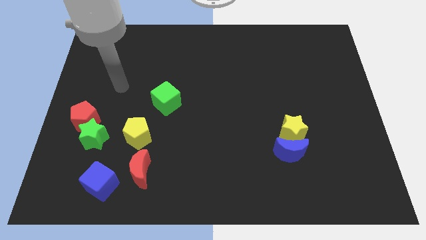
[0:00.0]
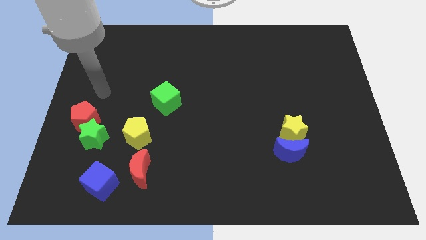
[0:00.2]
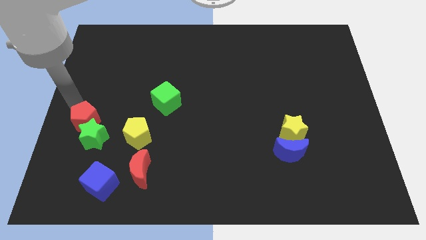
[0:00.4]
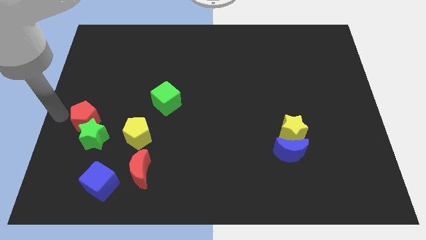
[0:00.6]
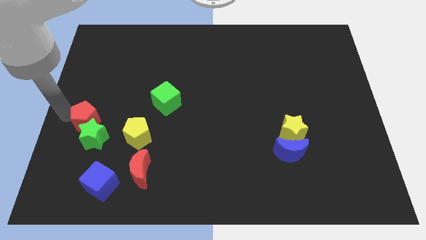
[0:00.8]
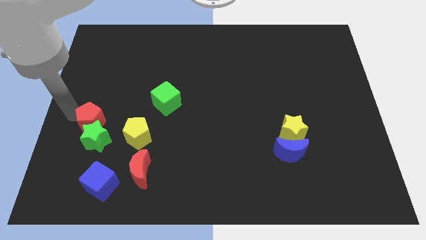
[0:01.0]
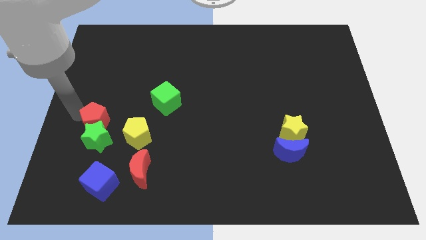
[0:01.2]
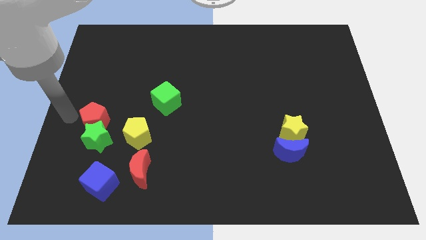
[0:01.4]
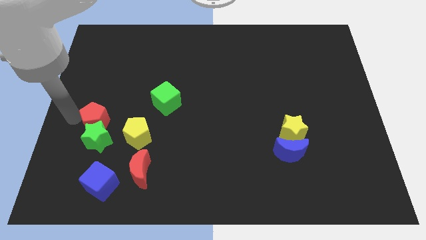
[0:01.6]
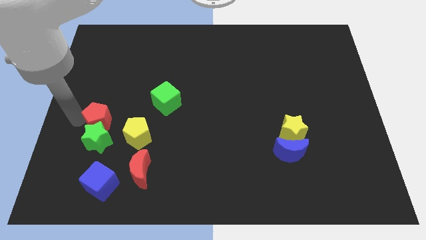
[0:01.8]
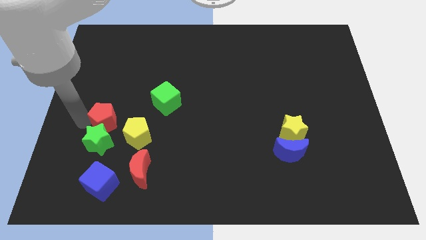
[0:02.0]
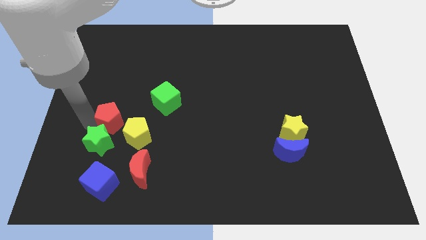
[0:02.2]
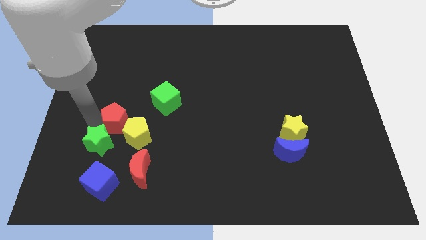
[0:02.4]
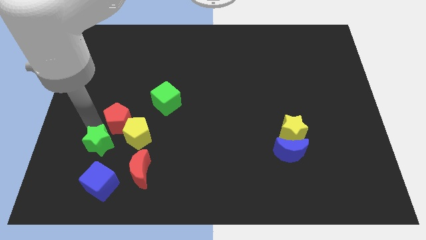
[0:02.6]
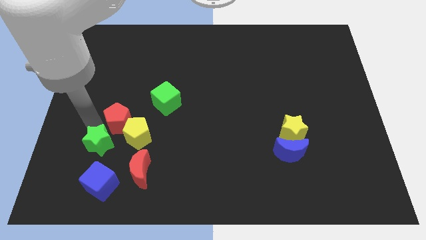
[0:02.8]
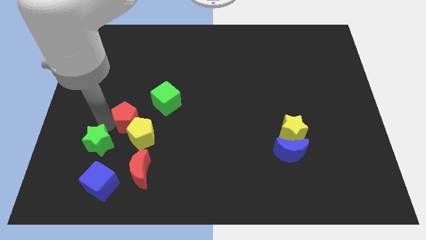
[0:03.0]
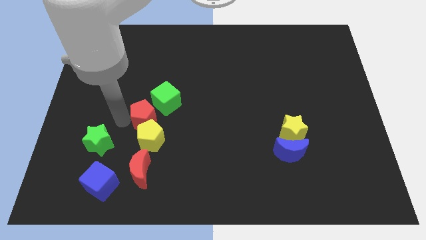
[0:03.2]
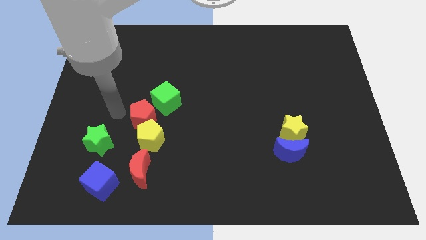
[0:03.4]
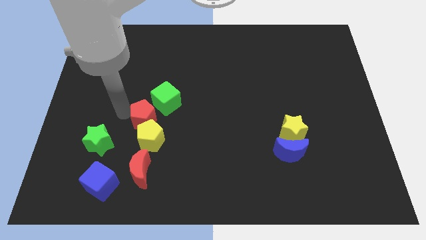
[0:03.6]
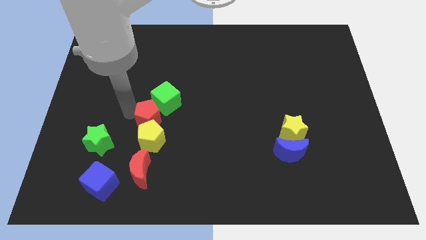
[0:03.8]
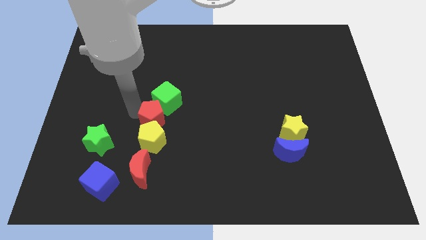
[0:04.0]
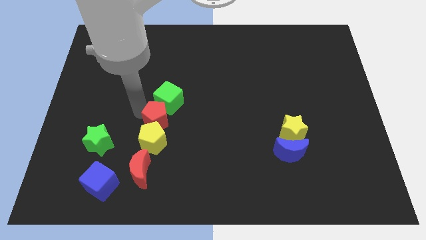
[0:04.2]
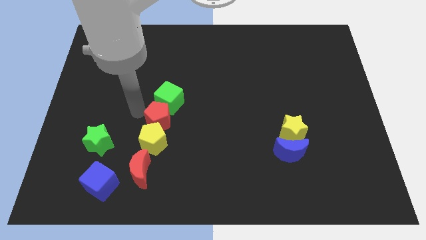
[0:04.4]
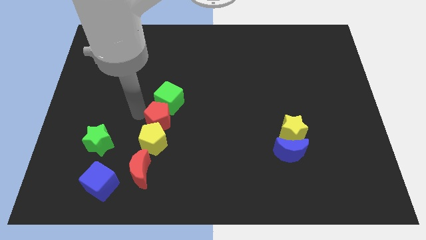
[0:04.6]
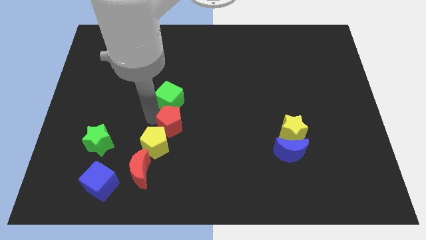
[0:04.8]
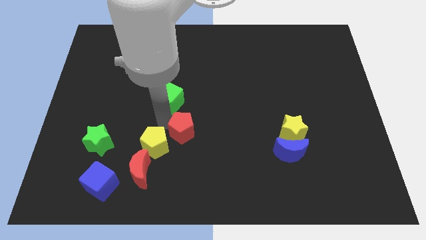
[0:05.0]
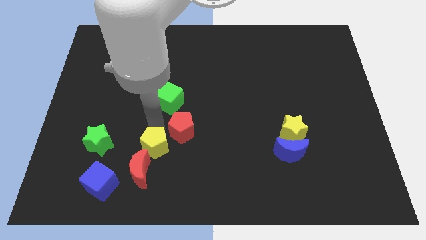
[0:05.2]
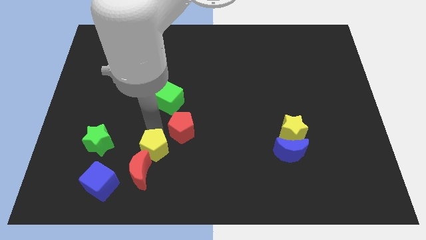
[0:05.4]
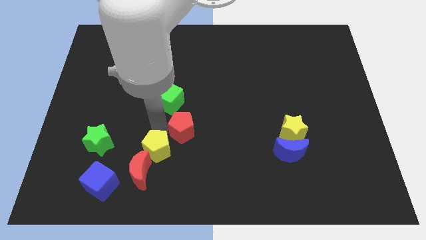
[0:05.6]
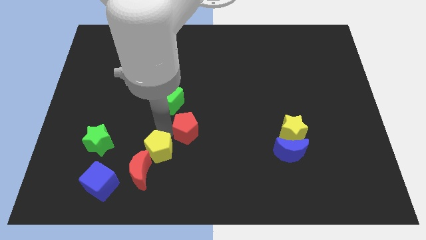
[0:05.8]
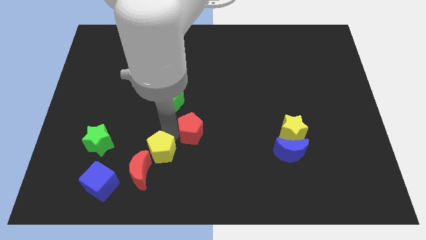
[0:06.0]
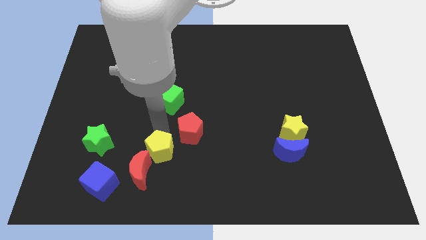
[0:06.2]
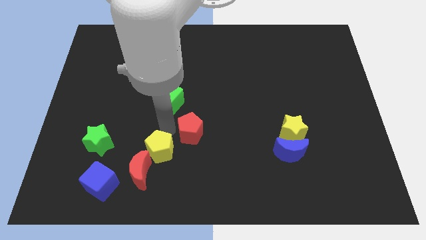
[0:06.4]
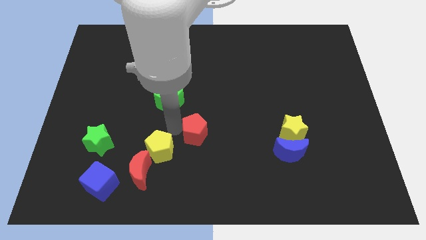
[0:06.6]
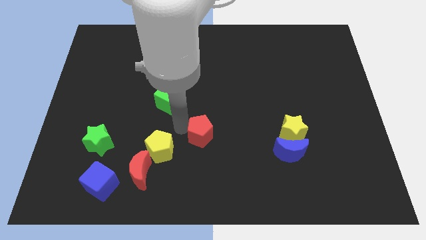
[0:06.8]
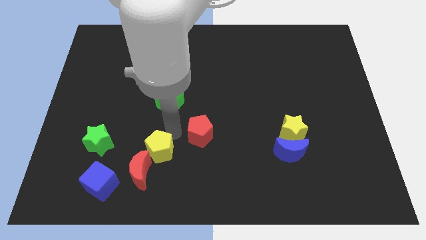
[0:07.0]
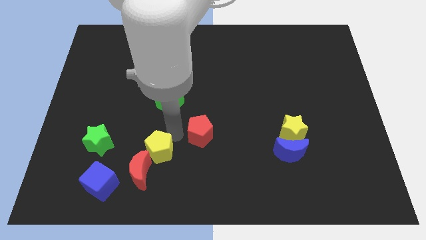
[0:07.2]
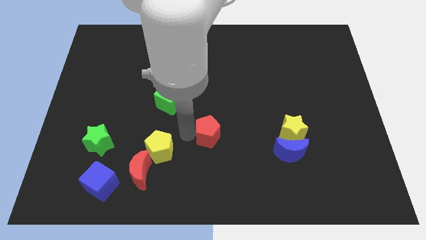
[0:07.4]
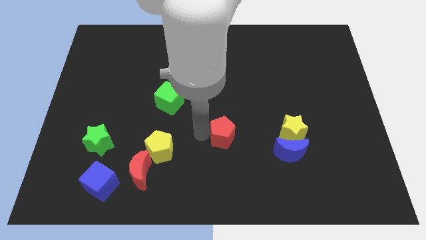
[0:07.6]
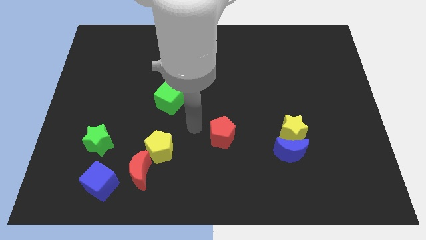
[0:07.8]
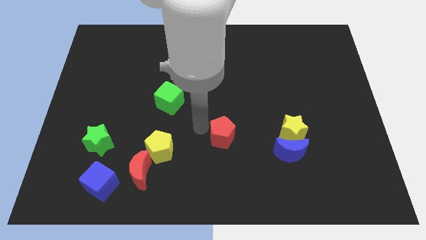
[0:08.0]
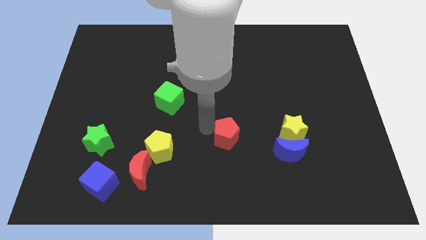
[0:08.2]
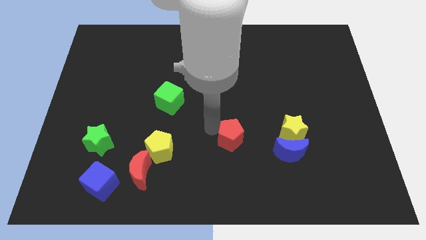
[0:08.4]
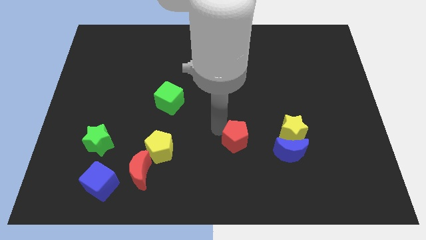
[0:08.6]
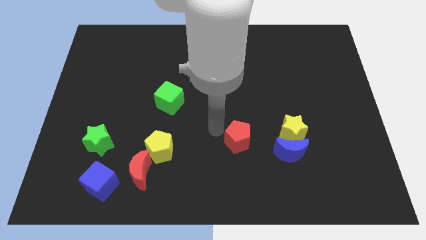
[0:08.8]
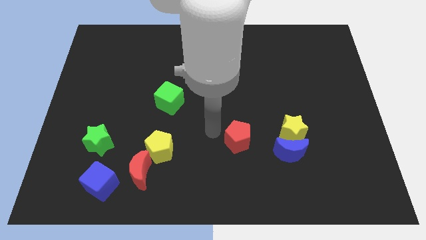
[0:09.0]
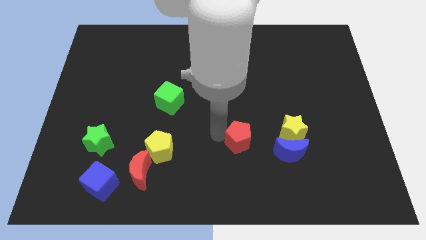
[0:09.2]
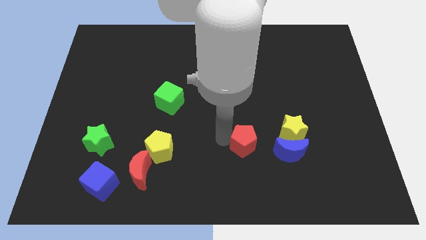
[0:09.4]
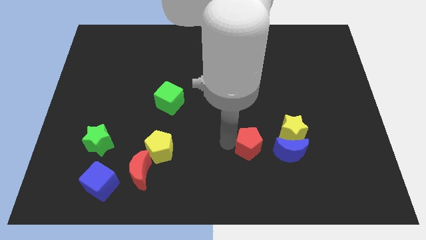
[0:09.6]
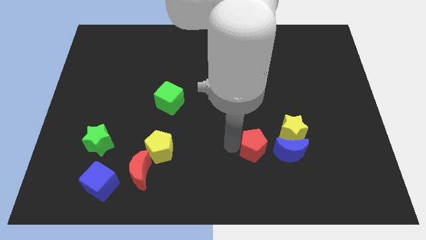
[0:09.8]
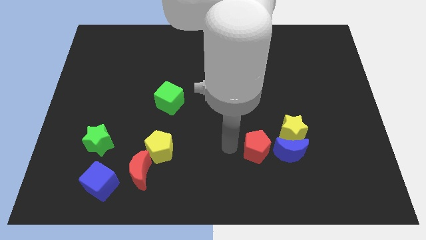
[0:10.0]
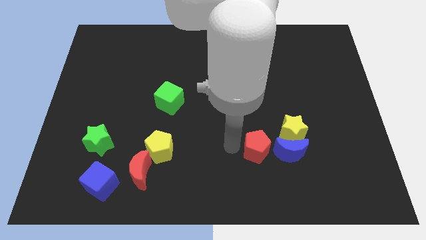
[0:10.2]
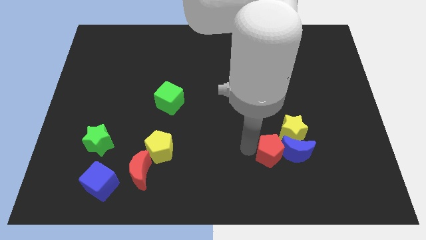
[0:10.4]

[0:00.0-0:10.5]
push the red pentagon to the blue moon
